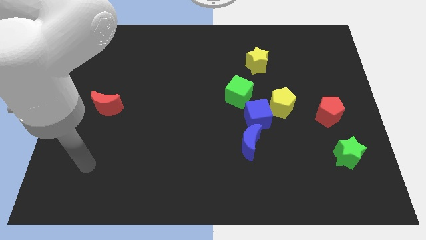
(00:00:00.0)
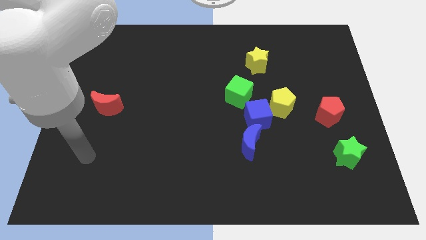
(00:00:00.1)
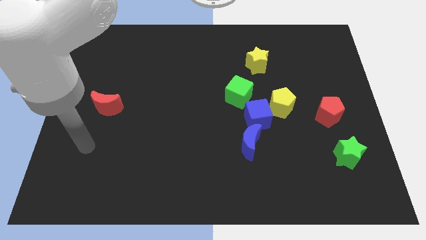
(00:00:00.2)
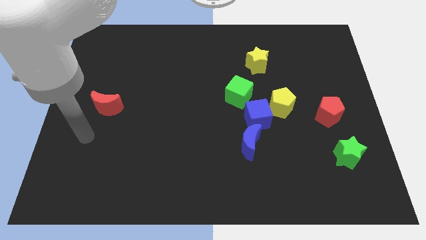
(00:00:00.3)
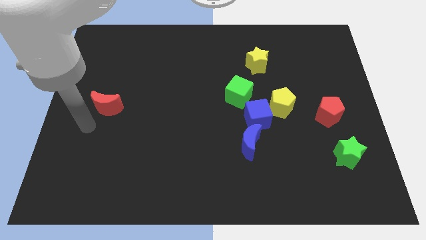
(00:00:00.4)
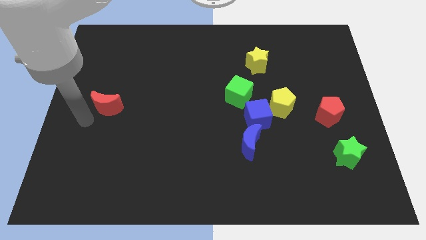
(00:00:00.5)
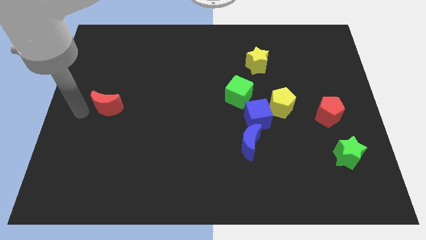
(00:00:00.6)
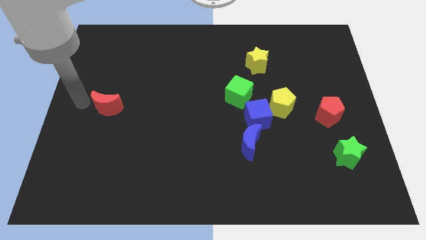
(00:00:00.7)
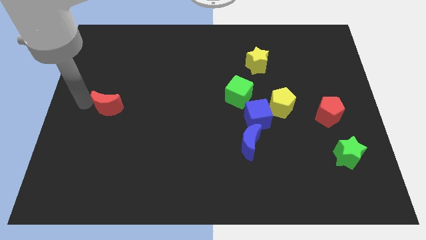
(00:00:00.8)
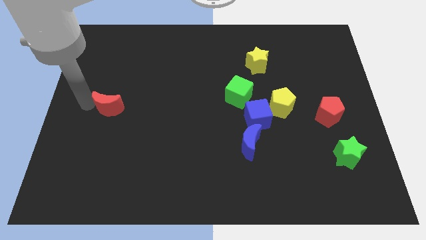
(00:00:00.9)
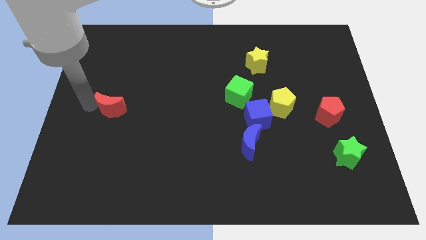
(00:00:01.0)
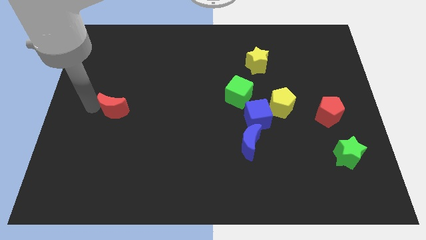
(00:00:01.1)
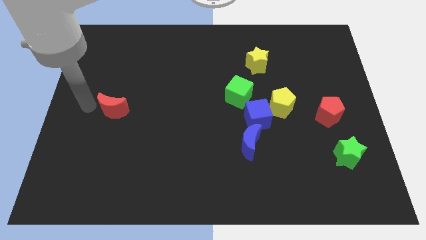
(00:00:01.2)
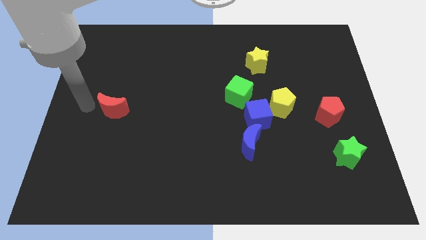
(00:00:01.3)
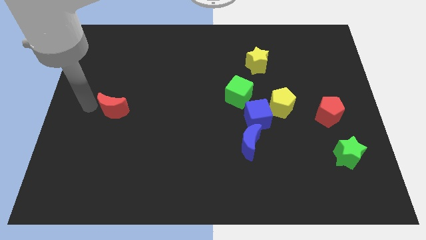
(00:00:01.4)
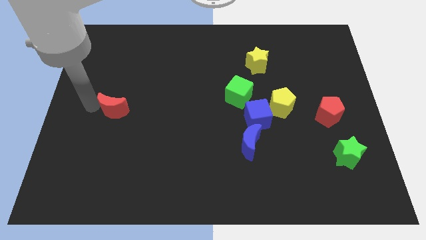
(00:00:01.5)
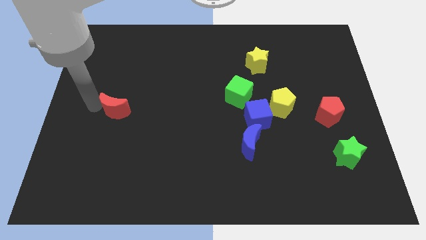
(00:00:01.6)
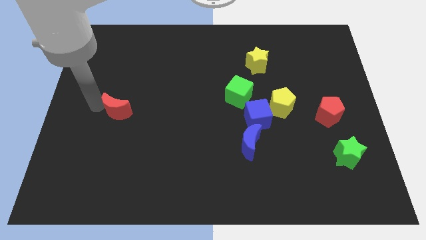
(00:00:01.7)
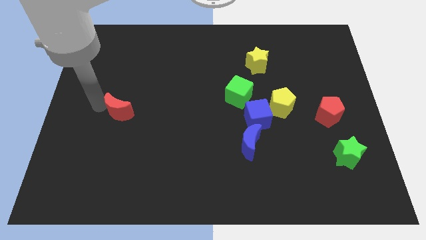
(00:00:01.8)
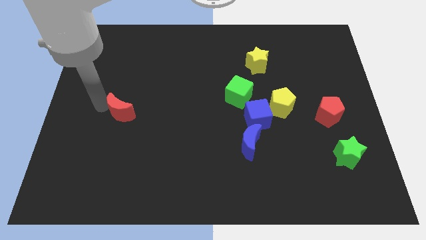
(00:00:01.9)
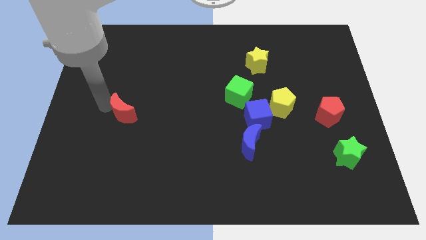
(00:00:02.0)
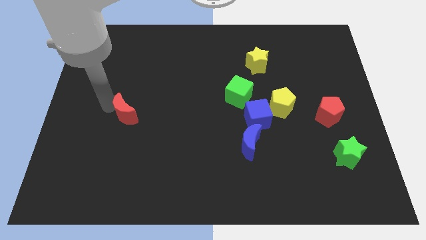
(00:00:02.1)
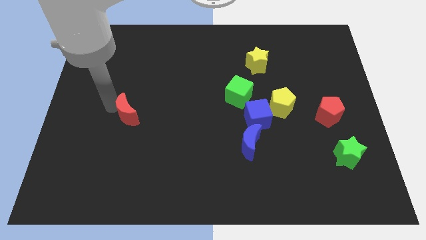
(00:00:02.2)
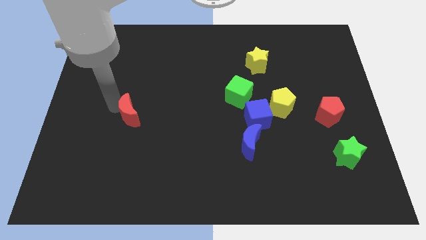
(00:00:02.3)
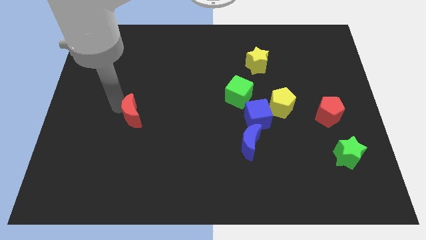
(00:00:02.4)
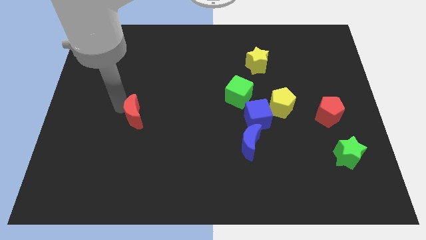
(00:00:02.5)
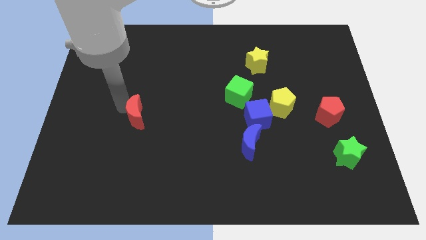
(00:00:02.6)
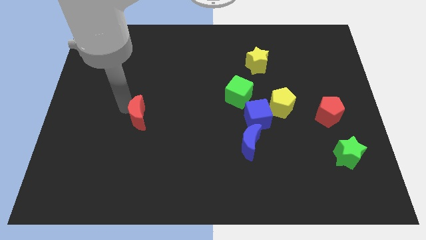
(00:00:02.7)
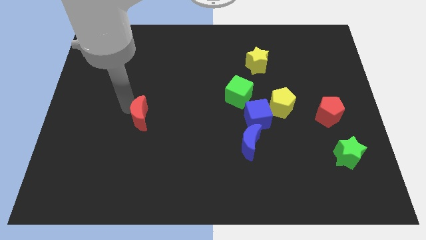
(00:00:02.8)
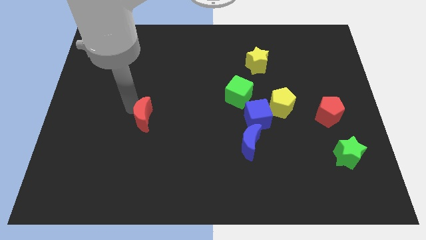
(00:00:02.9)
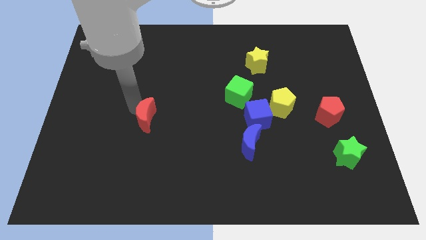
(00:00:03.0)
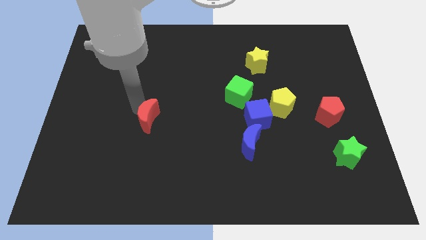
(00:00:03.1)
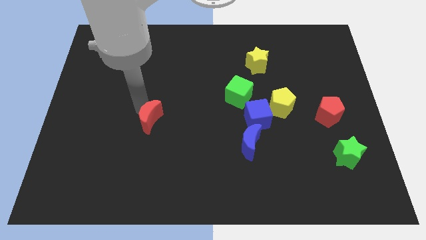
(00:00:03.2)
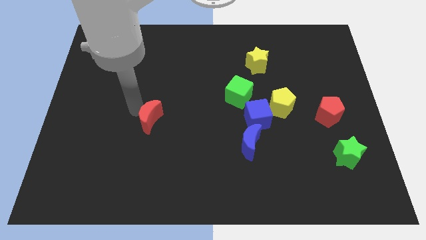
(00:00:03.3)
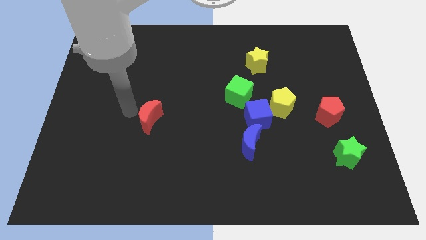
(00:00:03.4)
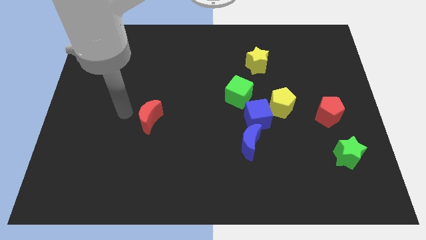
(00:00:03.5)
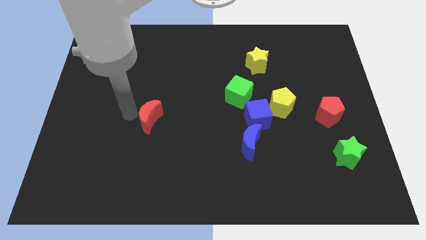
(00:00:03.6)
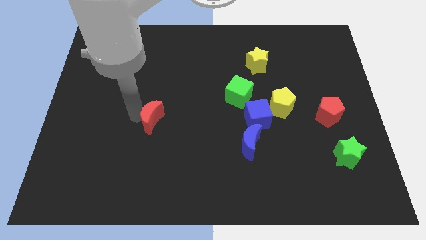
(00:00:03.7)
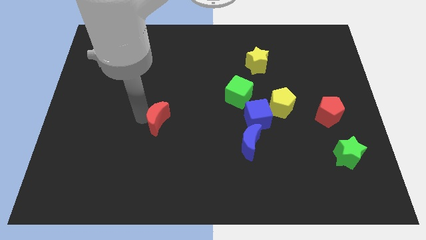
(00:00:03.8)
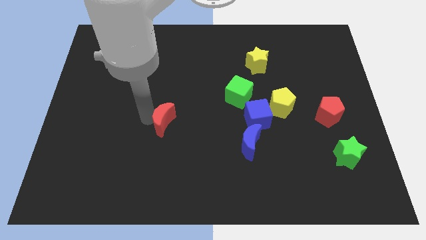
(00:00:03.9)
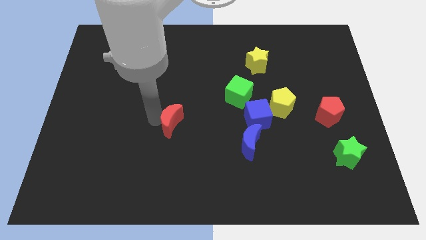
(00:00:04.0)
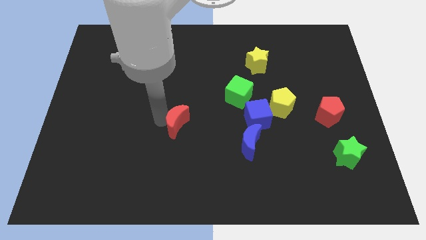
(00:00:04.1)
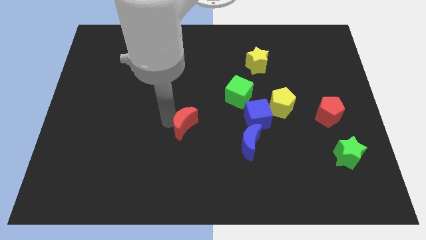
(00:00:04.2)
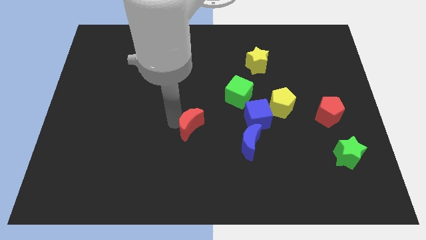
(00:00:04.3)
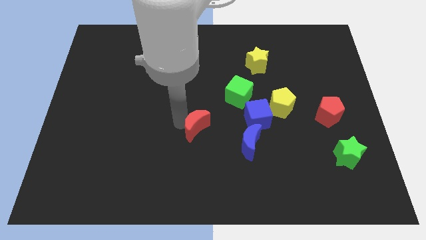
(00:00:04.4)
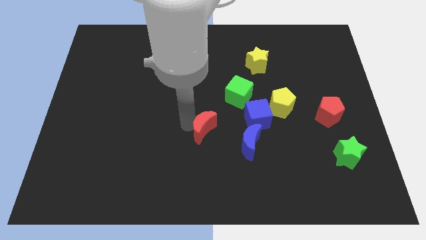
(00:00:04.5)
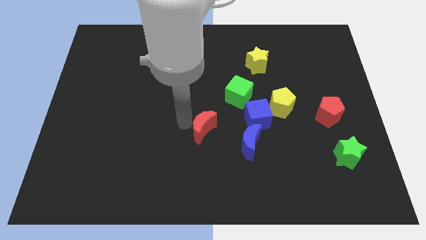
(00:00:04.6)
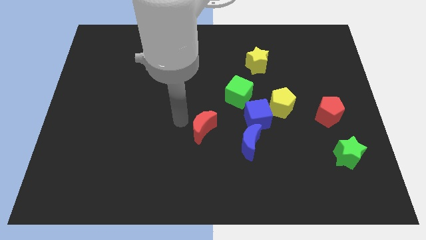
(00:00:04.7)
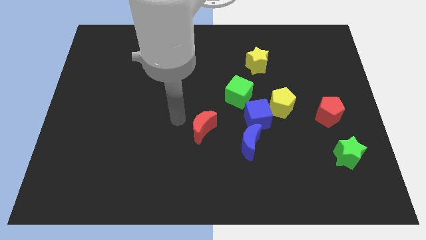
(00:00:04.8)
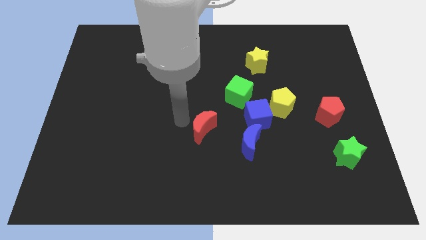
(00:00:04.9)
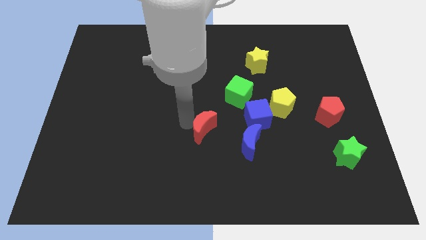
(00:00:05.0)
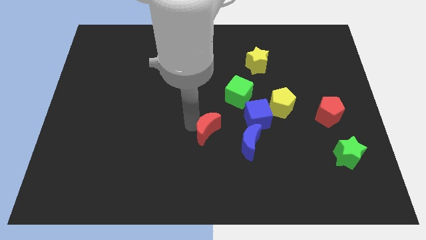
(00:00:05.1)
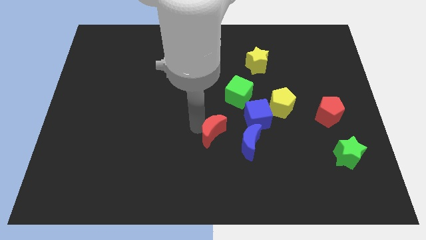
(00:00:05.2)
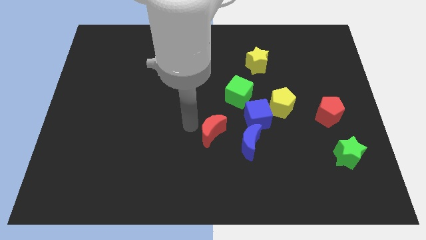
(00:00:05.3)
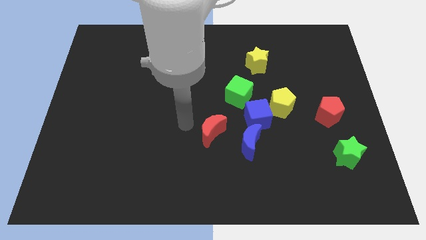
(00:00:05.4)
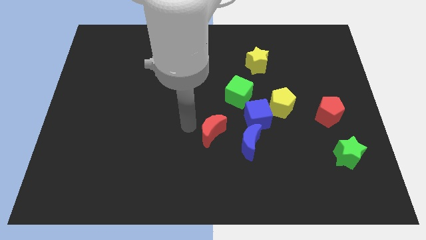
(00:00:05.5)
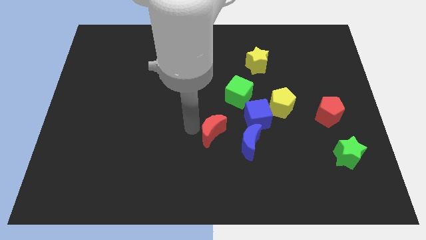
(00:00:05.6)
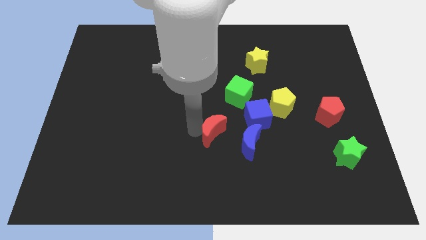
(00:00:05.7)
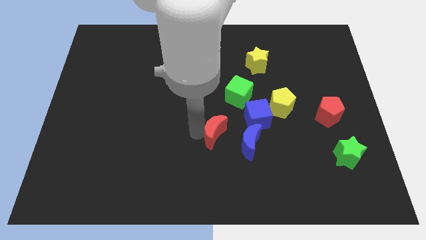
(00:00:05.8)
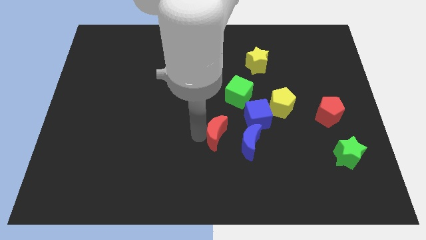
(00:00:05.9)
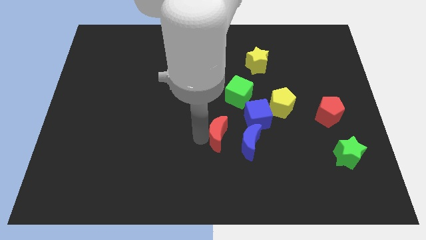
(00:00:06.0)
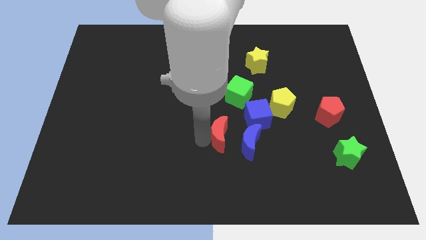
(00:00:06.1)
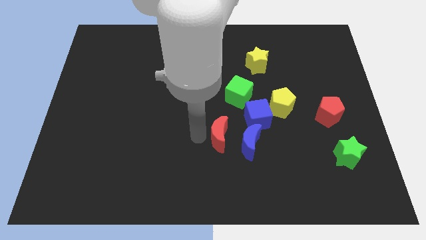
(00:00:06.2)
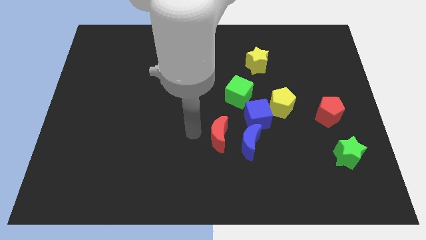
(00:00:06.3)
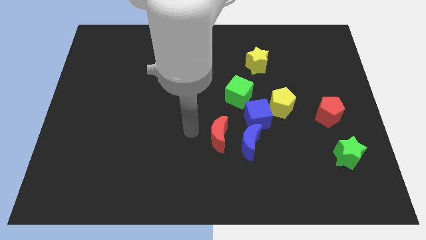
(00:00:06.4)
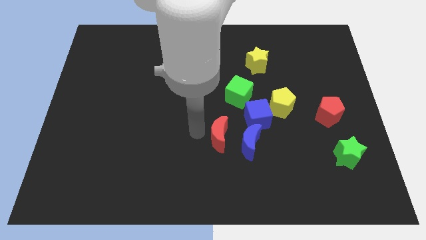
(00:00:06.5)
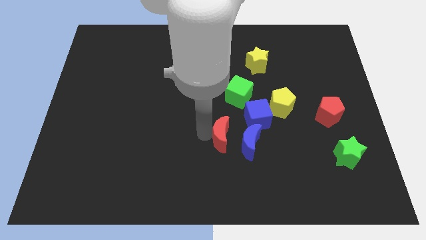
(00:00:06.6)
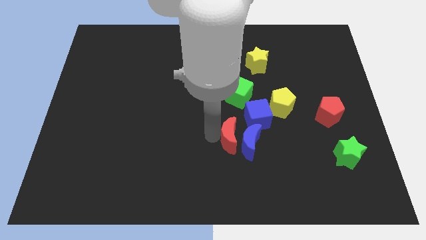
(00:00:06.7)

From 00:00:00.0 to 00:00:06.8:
move the red moon close to the blue moon
